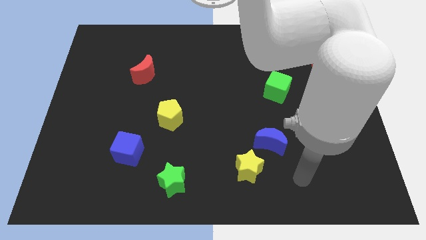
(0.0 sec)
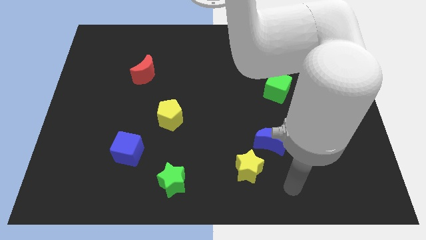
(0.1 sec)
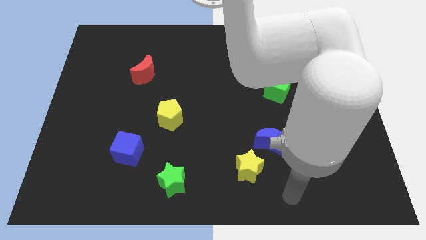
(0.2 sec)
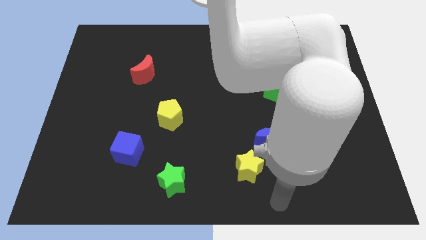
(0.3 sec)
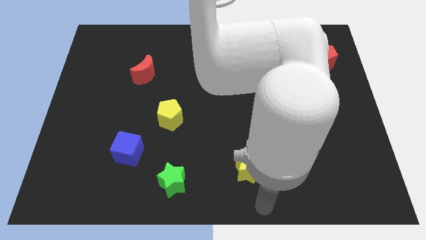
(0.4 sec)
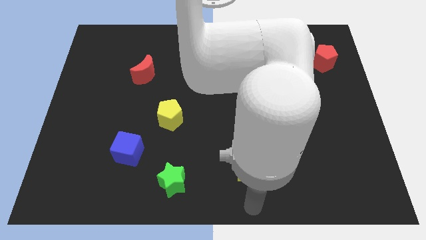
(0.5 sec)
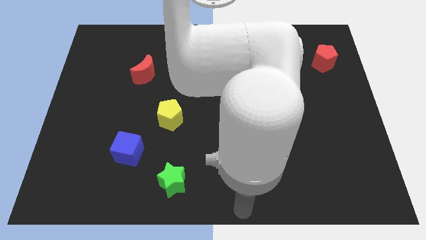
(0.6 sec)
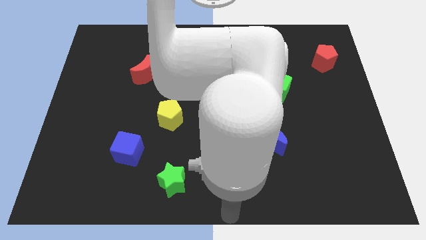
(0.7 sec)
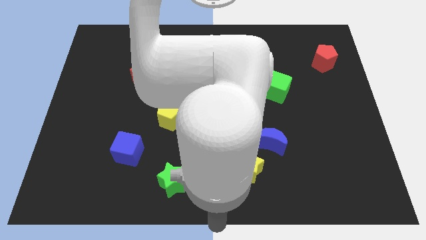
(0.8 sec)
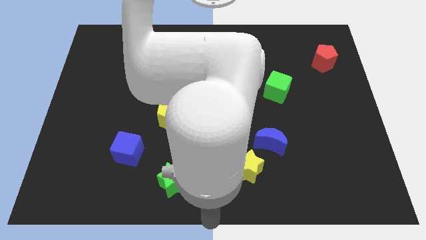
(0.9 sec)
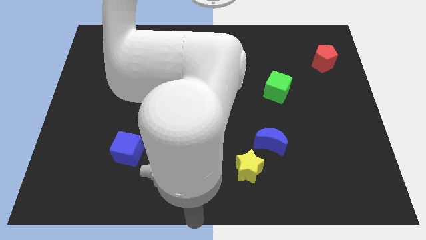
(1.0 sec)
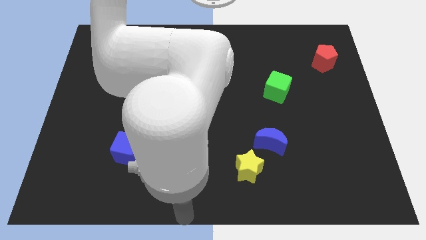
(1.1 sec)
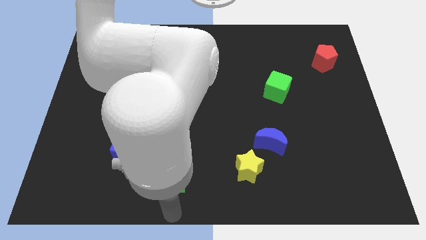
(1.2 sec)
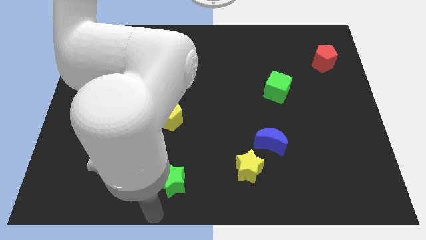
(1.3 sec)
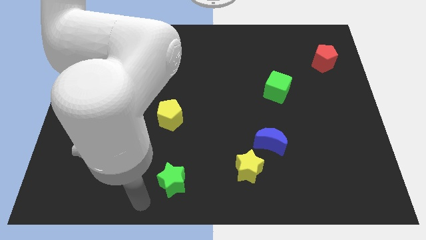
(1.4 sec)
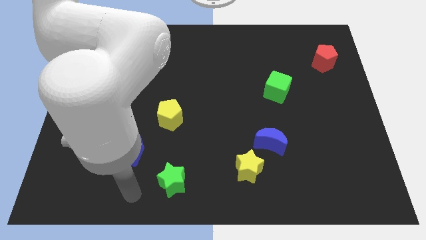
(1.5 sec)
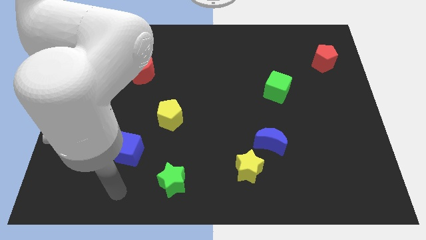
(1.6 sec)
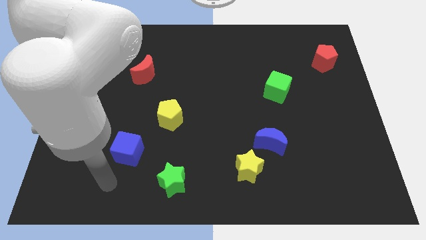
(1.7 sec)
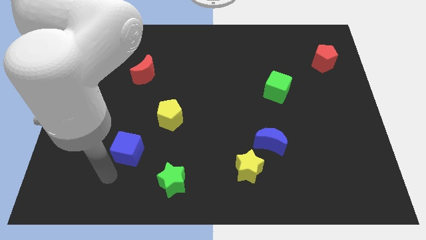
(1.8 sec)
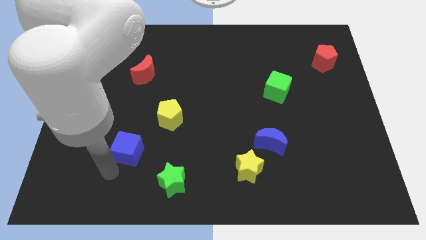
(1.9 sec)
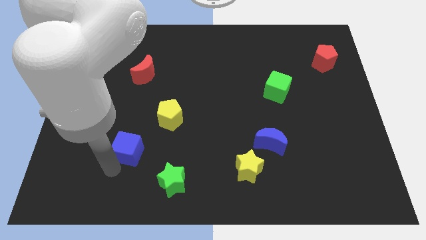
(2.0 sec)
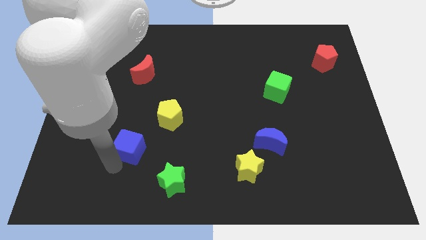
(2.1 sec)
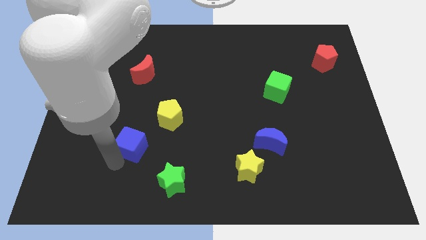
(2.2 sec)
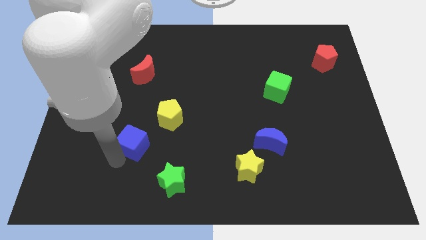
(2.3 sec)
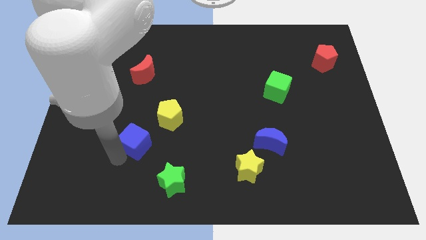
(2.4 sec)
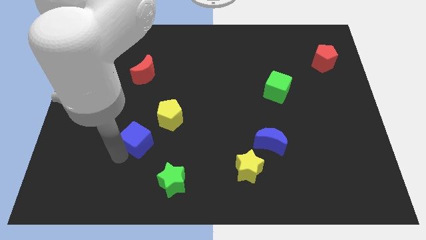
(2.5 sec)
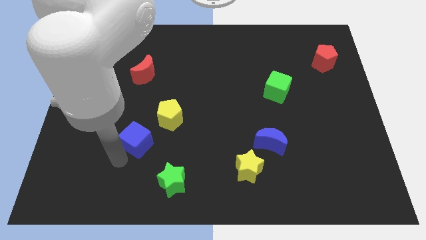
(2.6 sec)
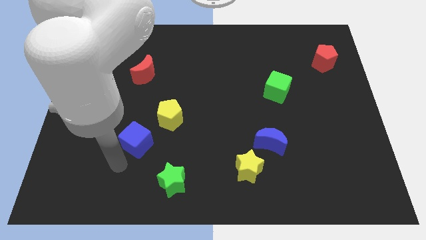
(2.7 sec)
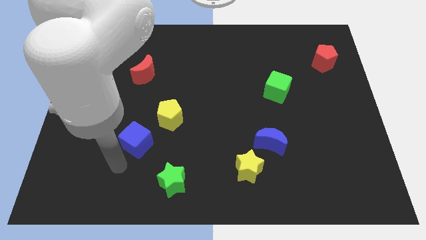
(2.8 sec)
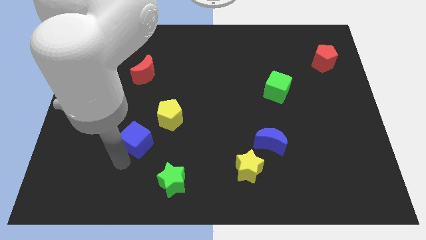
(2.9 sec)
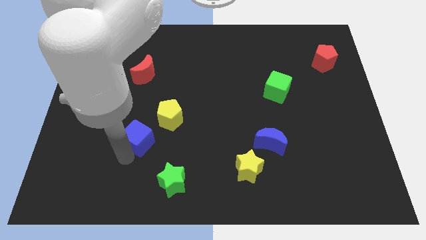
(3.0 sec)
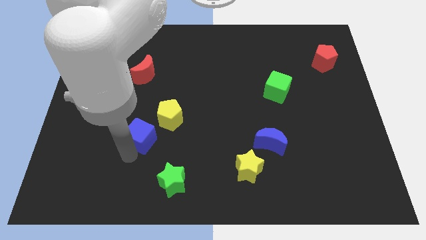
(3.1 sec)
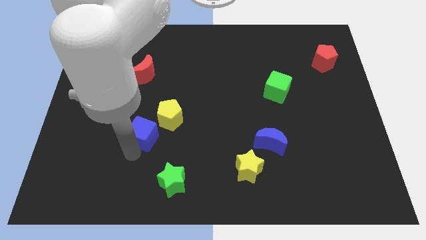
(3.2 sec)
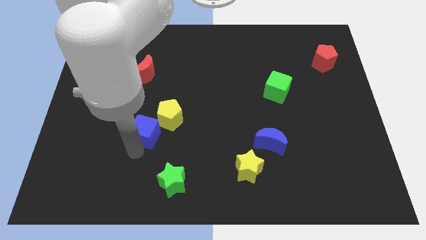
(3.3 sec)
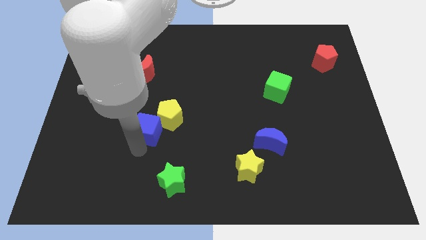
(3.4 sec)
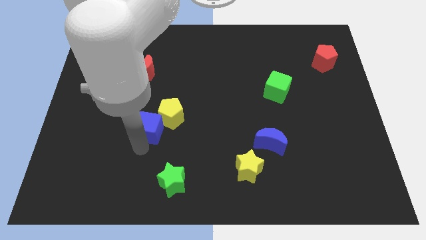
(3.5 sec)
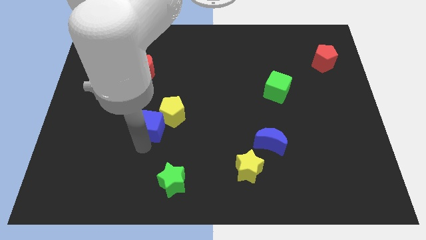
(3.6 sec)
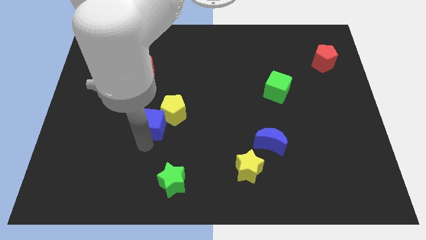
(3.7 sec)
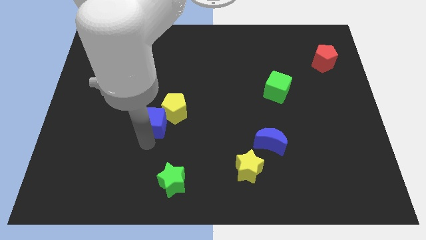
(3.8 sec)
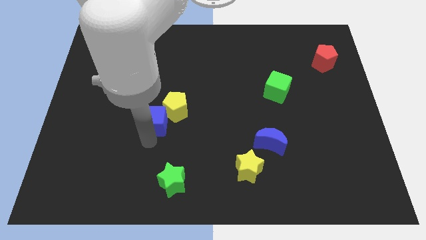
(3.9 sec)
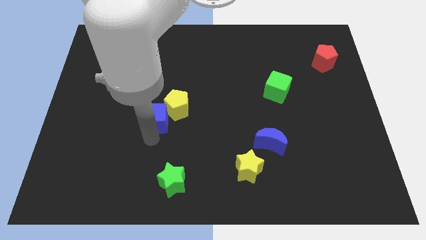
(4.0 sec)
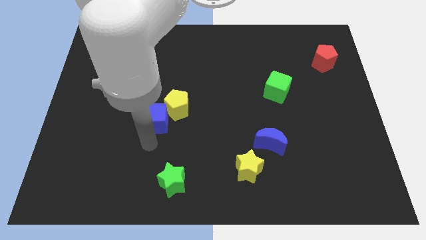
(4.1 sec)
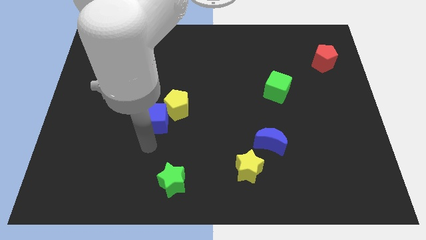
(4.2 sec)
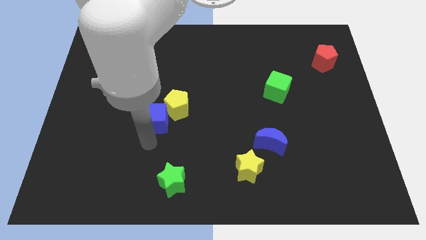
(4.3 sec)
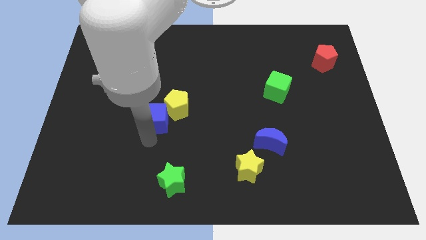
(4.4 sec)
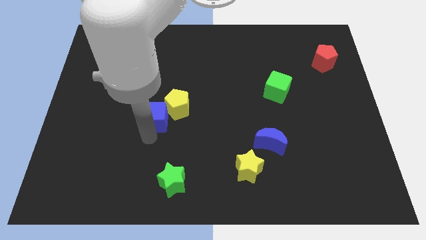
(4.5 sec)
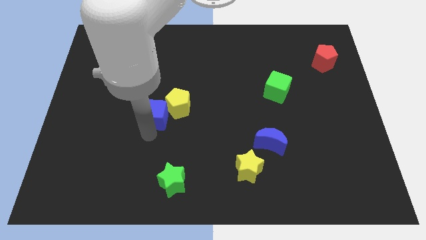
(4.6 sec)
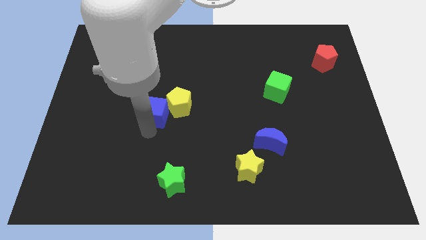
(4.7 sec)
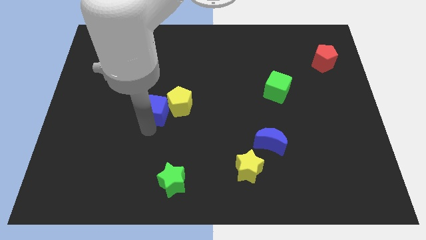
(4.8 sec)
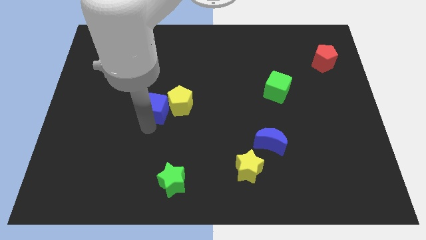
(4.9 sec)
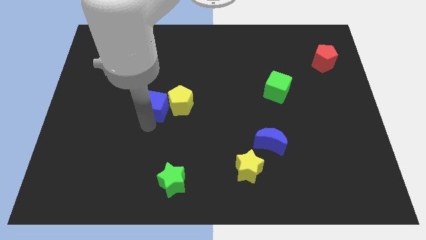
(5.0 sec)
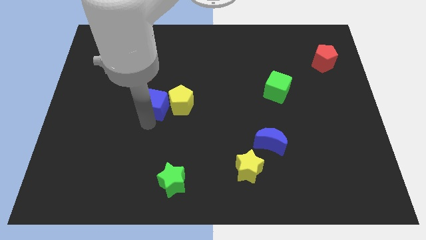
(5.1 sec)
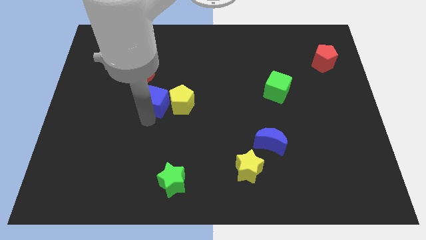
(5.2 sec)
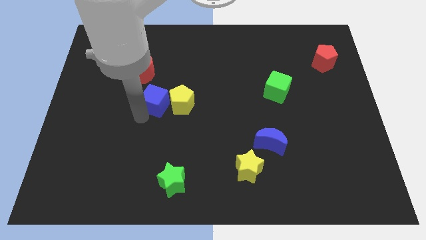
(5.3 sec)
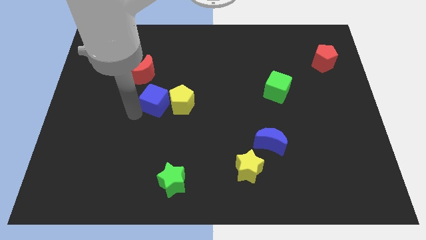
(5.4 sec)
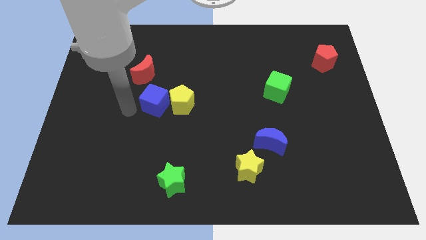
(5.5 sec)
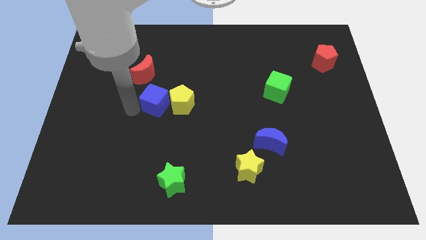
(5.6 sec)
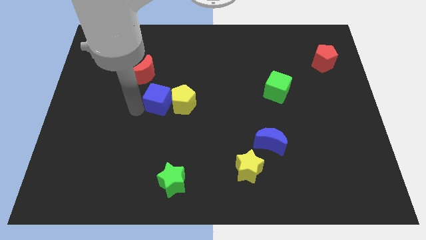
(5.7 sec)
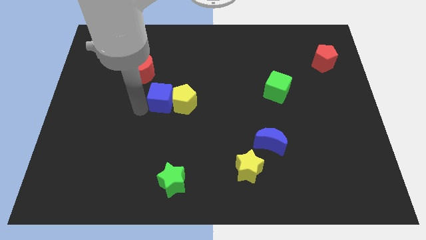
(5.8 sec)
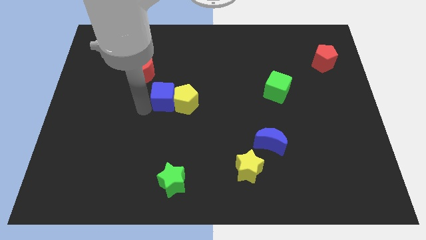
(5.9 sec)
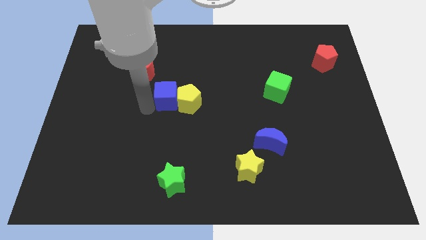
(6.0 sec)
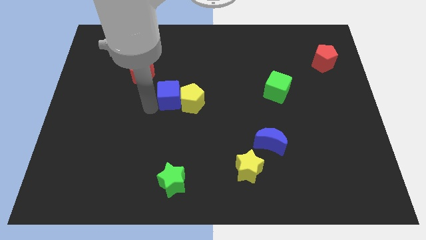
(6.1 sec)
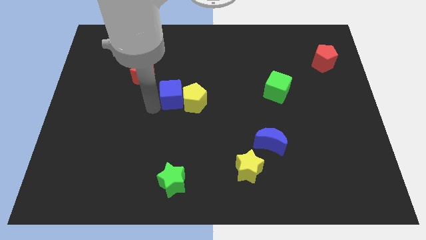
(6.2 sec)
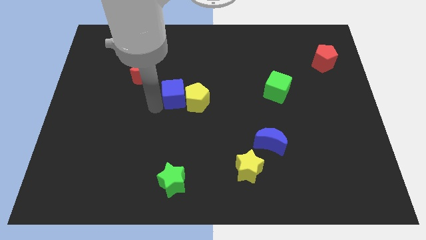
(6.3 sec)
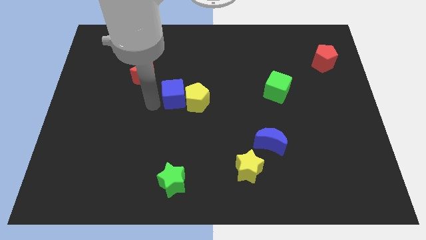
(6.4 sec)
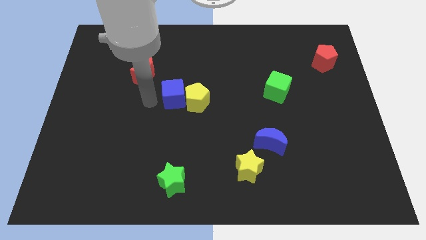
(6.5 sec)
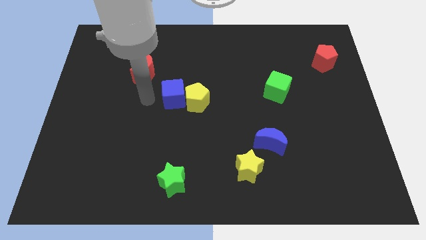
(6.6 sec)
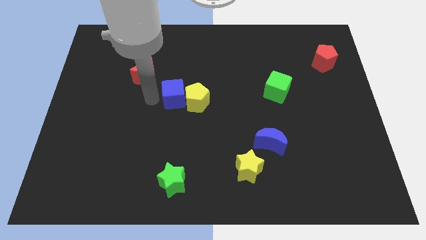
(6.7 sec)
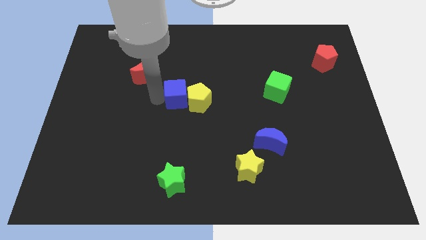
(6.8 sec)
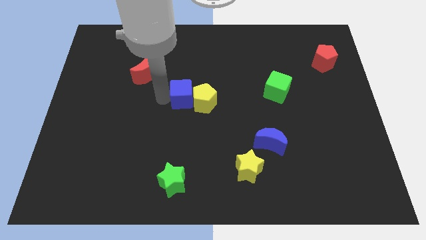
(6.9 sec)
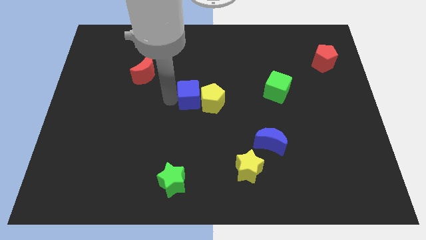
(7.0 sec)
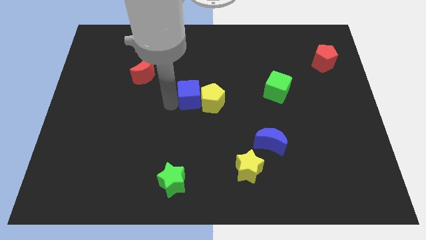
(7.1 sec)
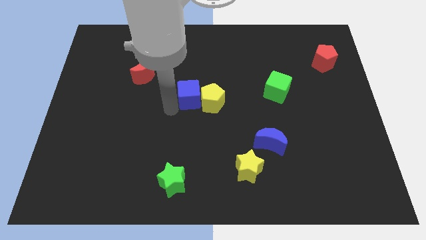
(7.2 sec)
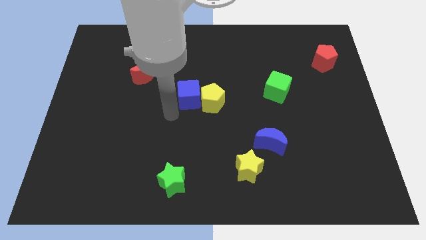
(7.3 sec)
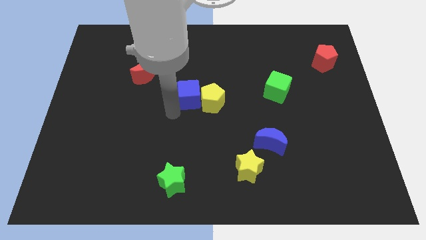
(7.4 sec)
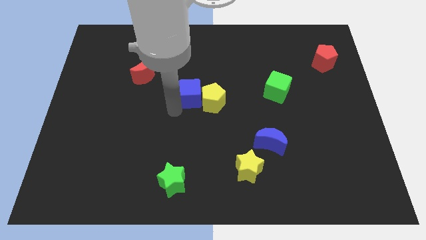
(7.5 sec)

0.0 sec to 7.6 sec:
push the blue cube up and to the right
